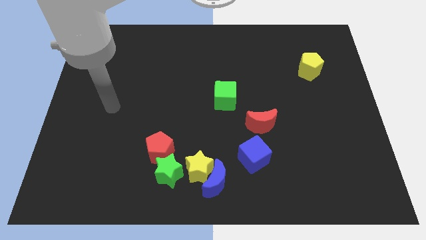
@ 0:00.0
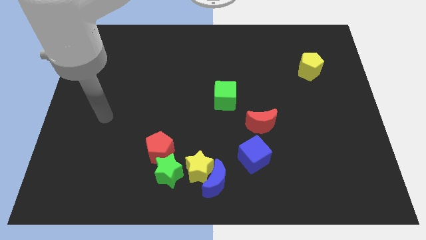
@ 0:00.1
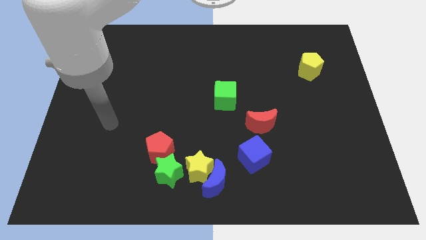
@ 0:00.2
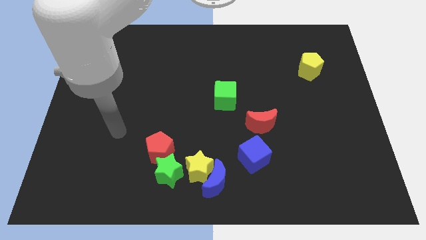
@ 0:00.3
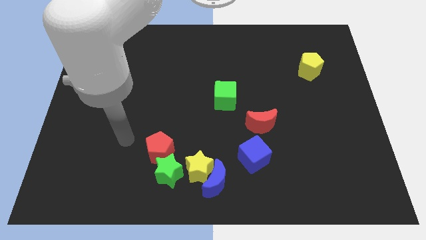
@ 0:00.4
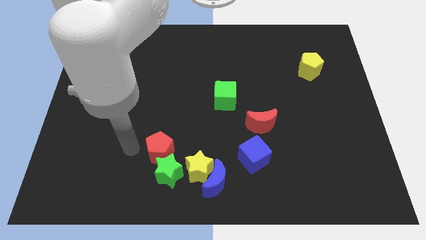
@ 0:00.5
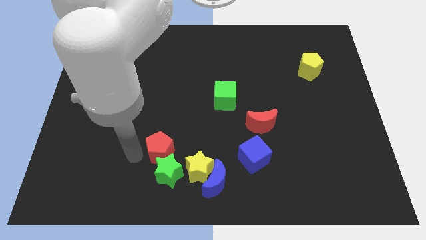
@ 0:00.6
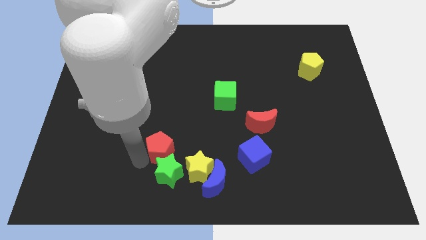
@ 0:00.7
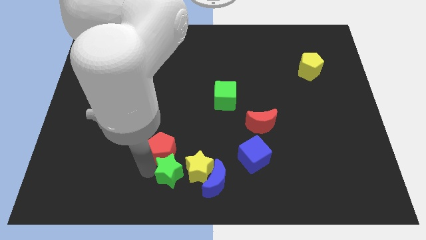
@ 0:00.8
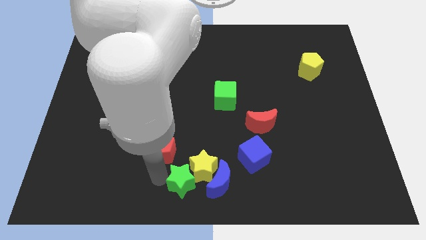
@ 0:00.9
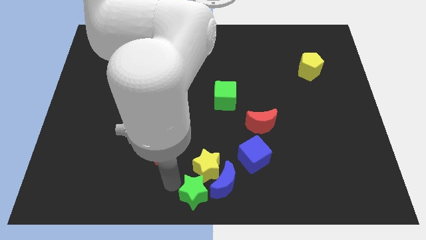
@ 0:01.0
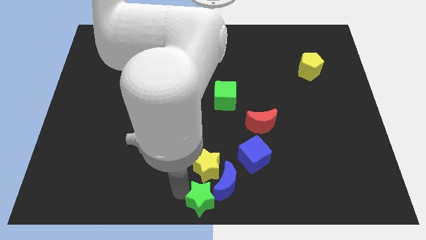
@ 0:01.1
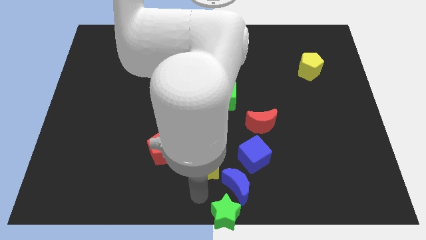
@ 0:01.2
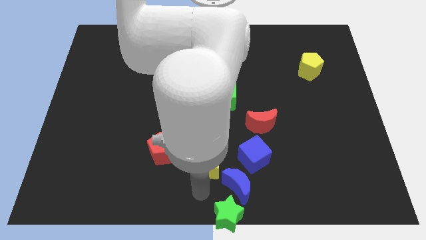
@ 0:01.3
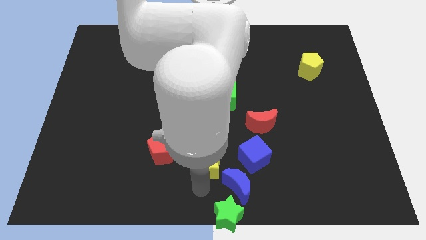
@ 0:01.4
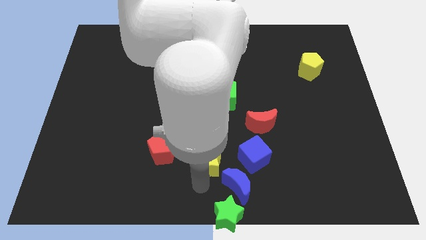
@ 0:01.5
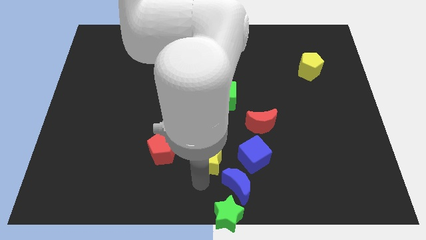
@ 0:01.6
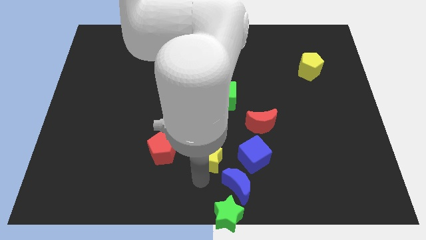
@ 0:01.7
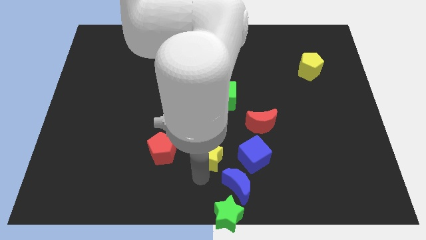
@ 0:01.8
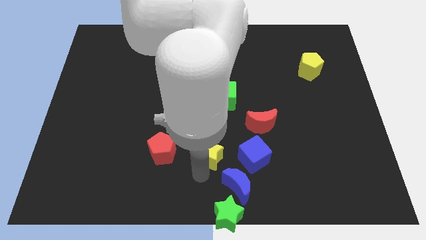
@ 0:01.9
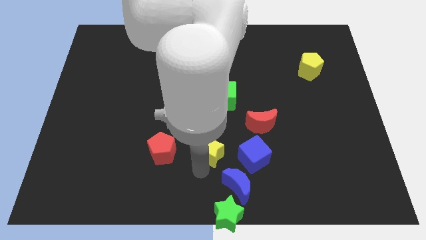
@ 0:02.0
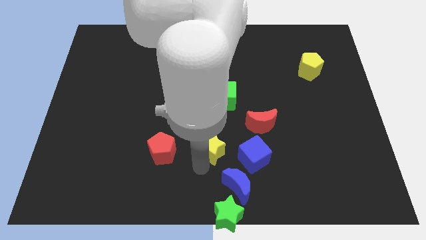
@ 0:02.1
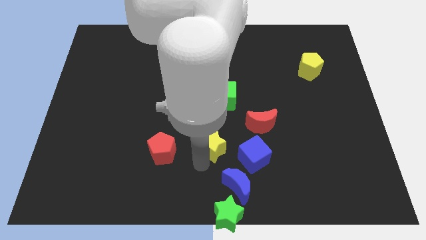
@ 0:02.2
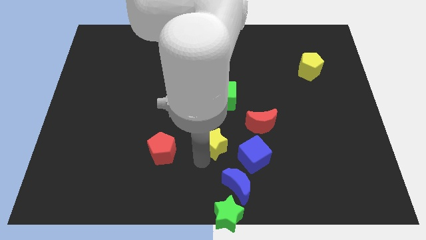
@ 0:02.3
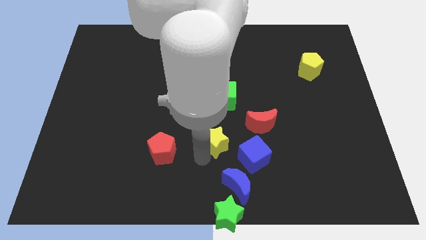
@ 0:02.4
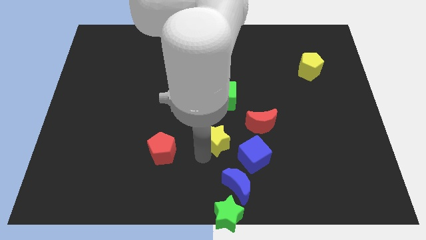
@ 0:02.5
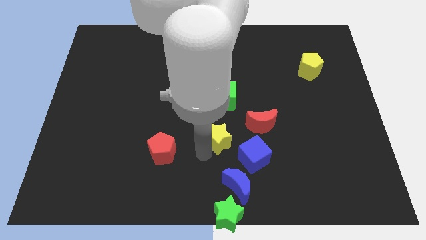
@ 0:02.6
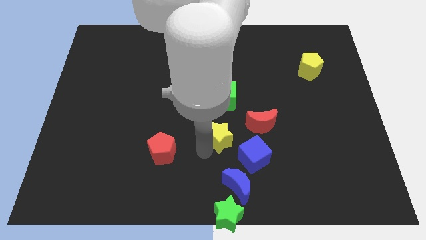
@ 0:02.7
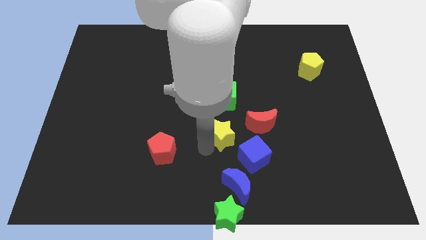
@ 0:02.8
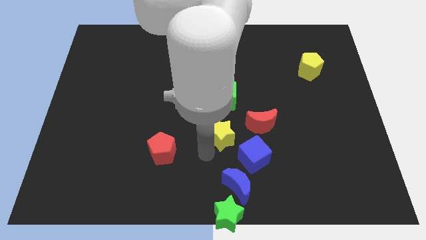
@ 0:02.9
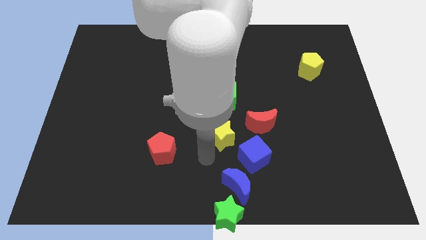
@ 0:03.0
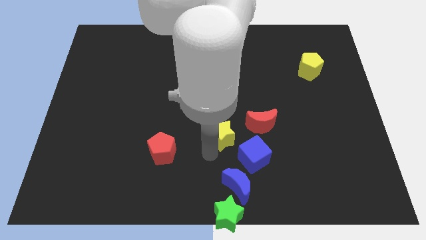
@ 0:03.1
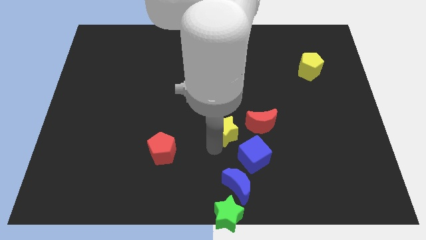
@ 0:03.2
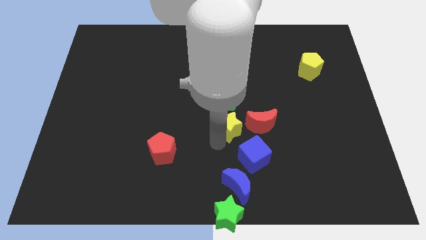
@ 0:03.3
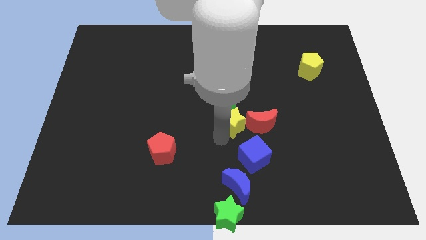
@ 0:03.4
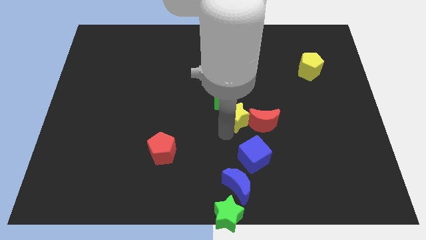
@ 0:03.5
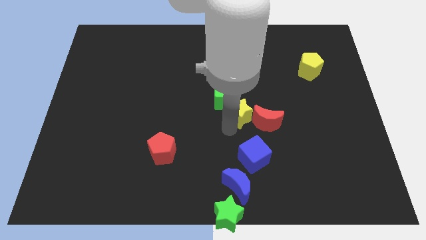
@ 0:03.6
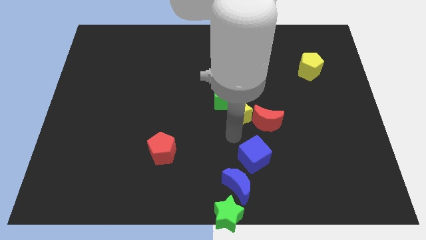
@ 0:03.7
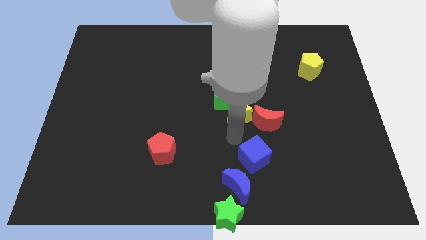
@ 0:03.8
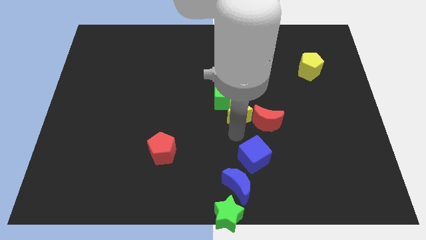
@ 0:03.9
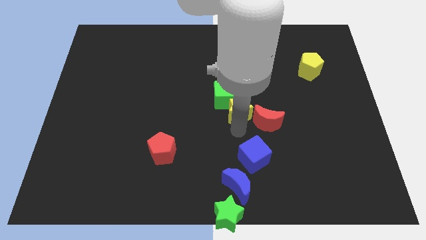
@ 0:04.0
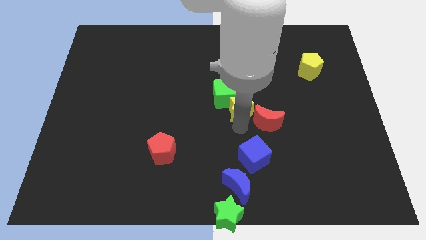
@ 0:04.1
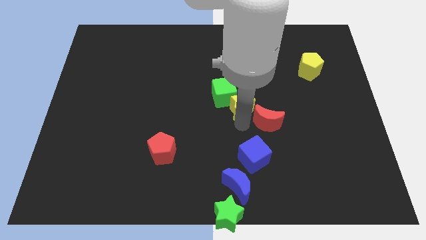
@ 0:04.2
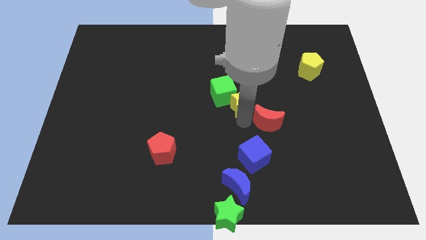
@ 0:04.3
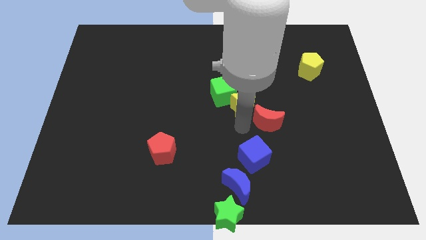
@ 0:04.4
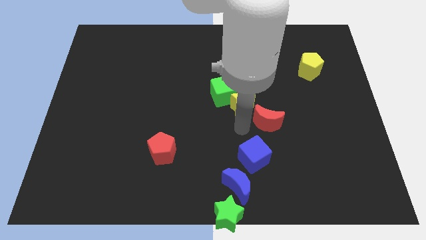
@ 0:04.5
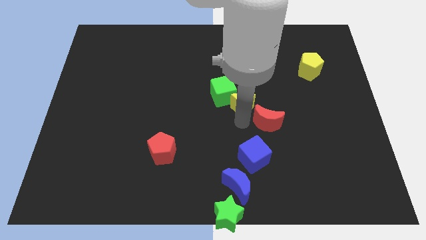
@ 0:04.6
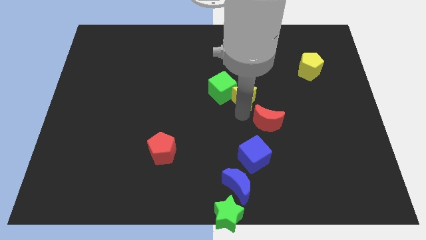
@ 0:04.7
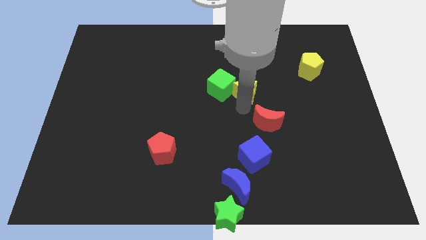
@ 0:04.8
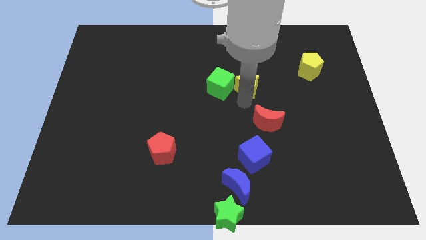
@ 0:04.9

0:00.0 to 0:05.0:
slide the yellow star to the top right side of the green cube

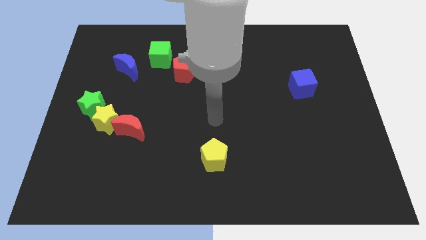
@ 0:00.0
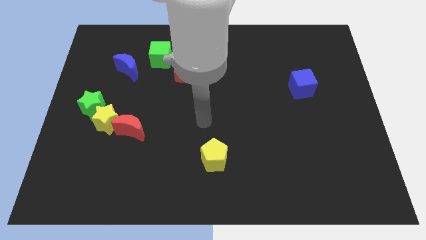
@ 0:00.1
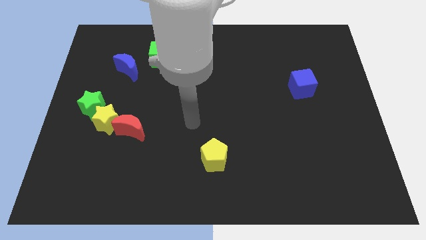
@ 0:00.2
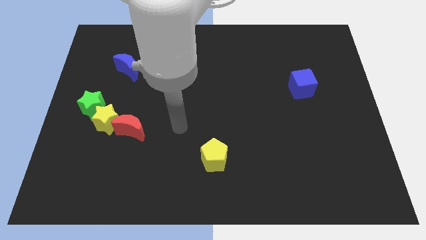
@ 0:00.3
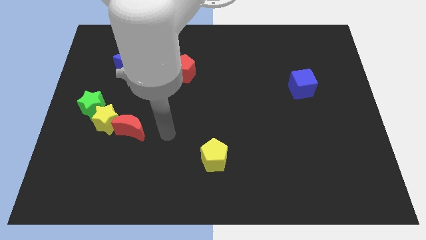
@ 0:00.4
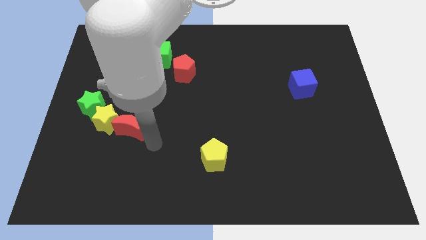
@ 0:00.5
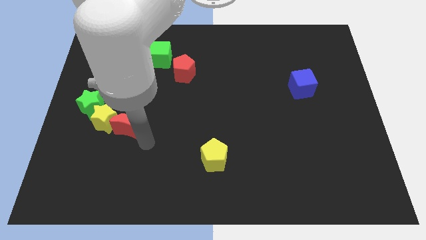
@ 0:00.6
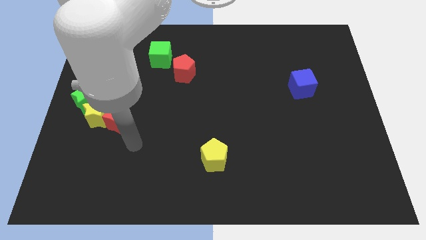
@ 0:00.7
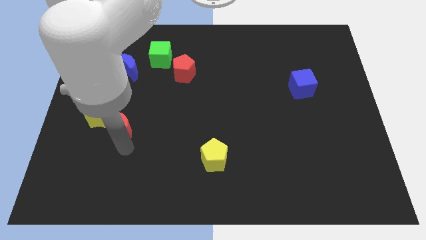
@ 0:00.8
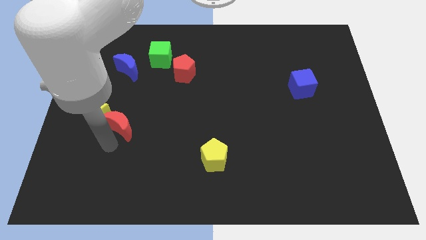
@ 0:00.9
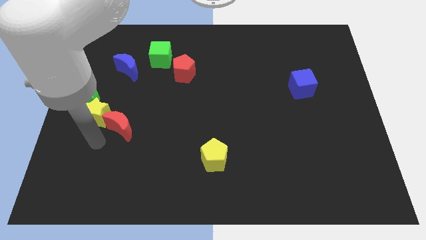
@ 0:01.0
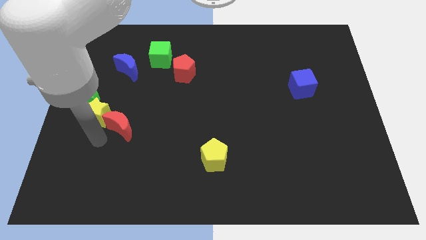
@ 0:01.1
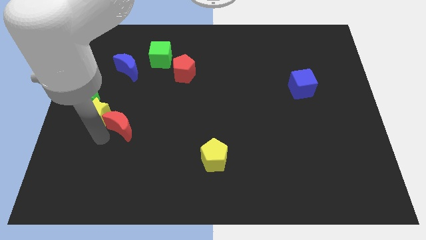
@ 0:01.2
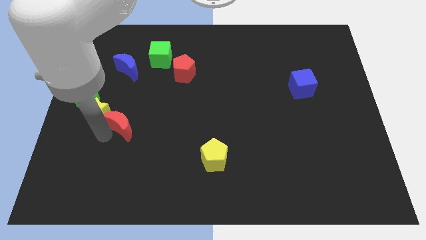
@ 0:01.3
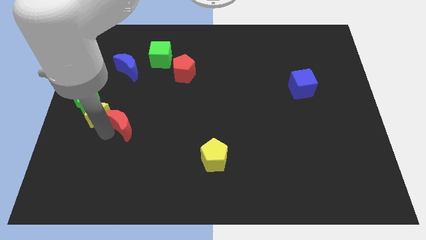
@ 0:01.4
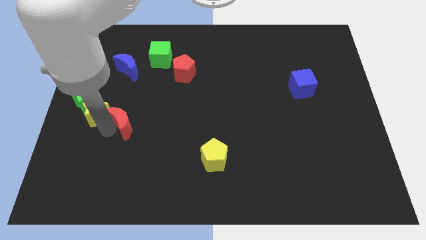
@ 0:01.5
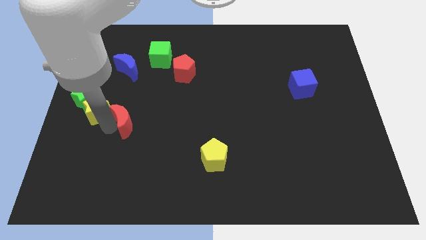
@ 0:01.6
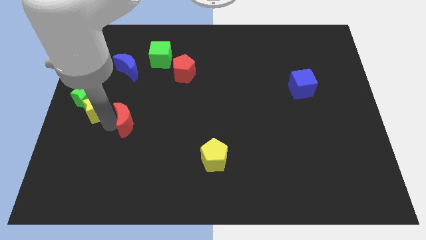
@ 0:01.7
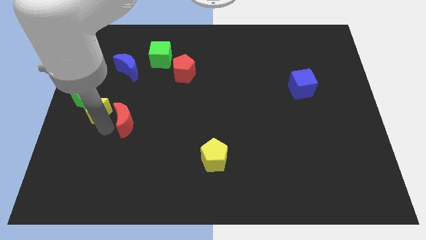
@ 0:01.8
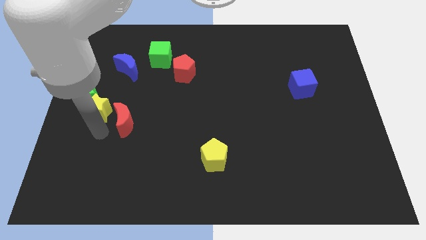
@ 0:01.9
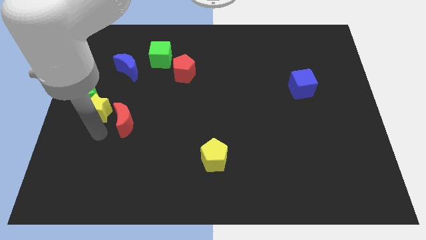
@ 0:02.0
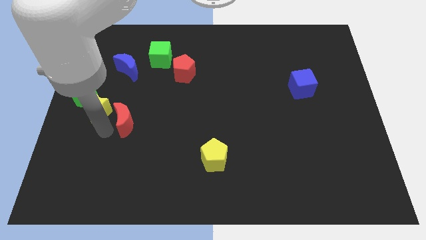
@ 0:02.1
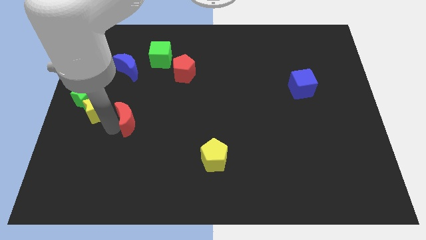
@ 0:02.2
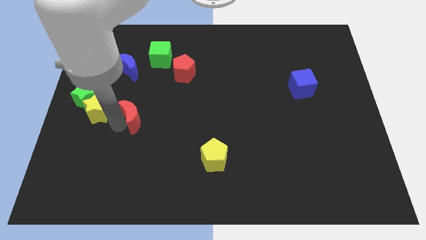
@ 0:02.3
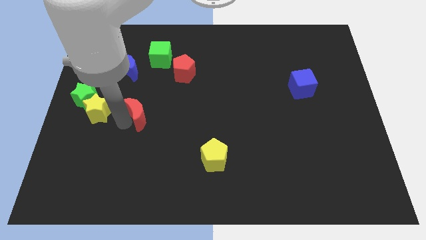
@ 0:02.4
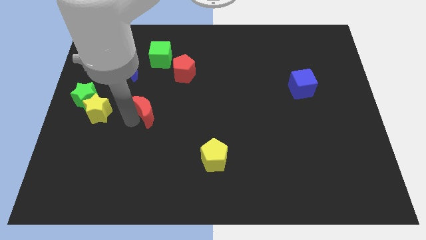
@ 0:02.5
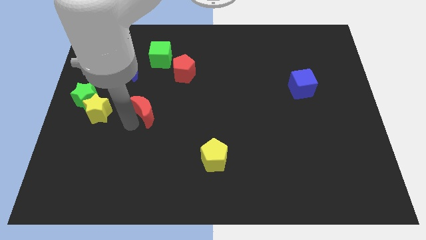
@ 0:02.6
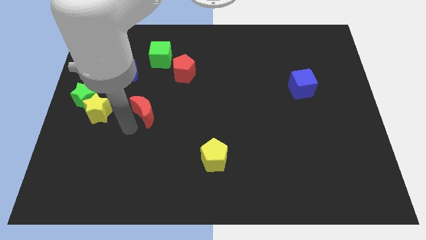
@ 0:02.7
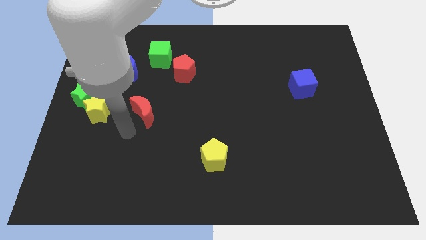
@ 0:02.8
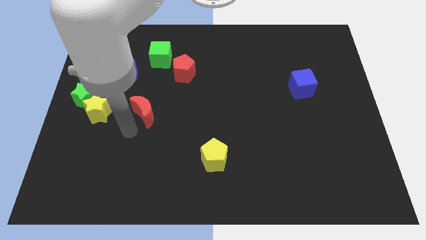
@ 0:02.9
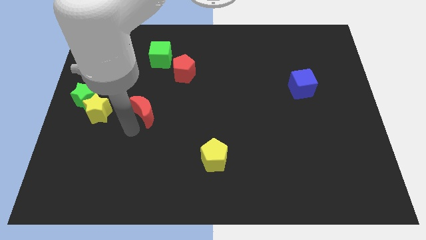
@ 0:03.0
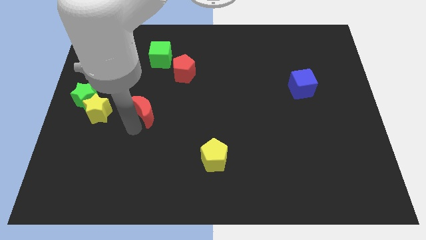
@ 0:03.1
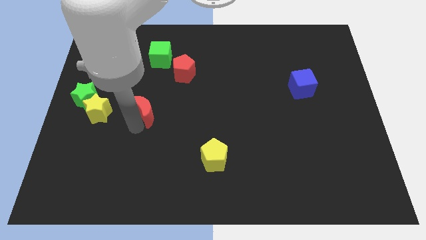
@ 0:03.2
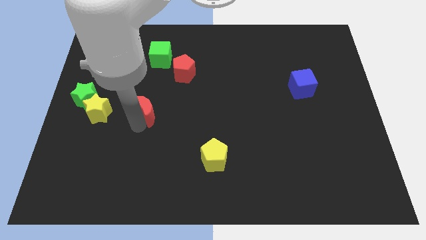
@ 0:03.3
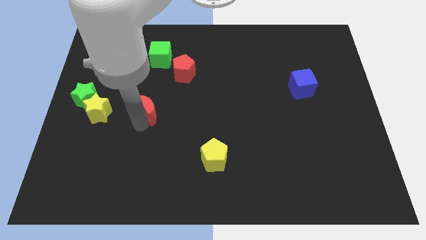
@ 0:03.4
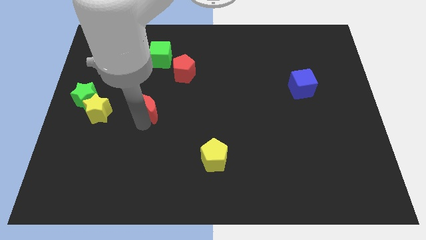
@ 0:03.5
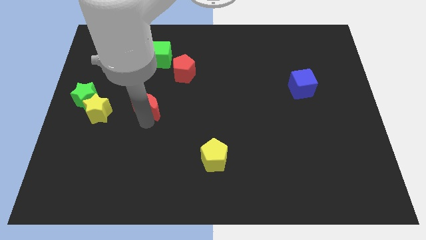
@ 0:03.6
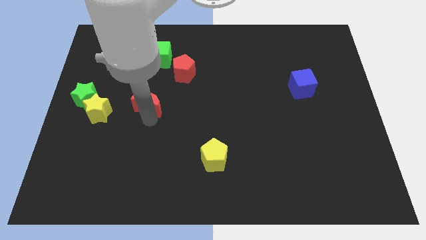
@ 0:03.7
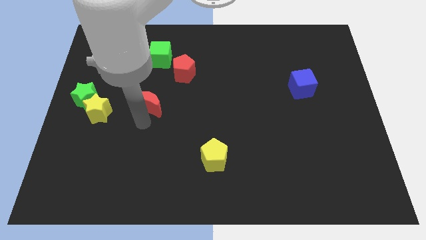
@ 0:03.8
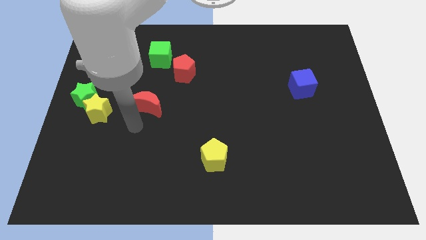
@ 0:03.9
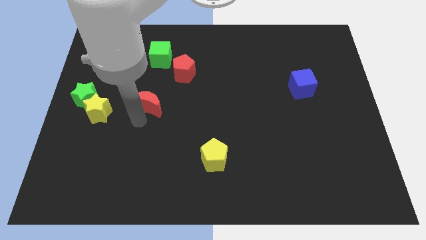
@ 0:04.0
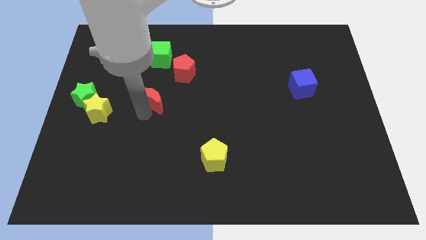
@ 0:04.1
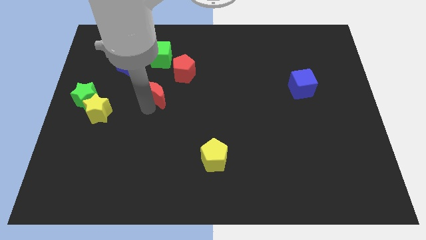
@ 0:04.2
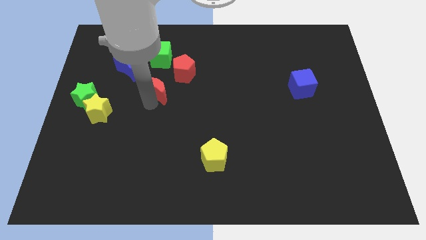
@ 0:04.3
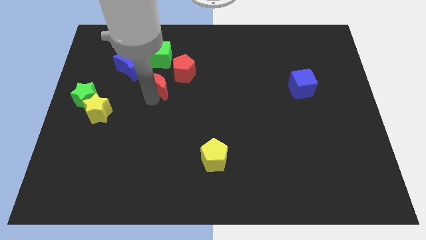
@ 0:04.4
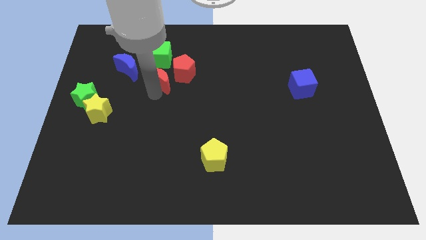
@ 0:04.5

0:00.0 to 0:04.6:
push the red moon to the right of the blue moon
